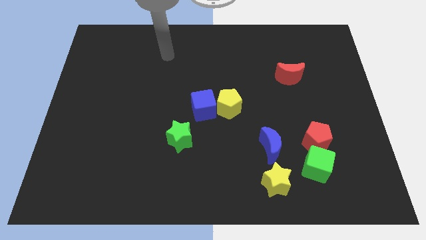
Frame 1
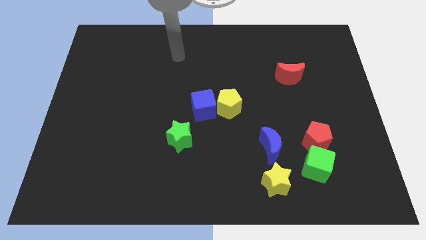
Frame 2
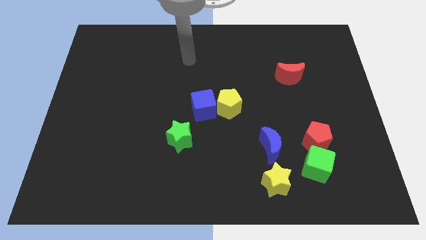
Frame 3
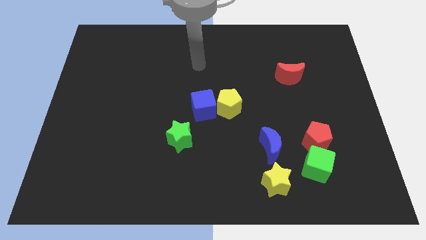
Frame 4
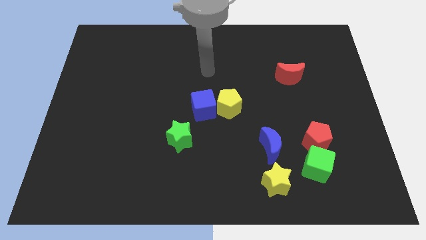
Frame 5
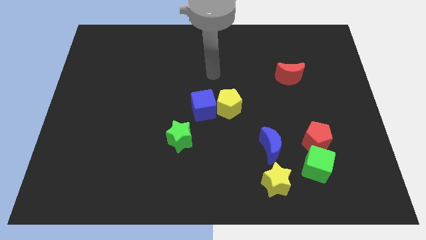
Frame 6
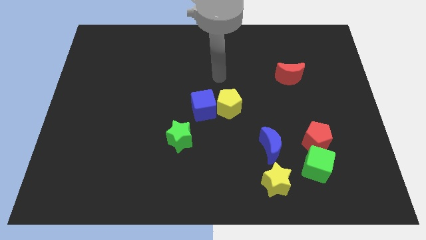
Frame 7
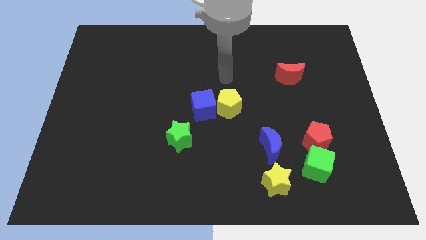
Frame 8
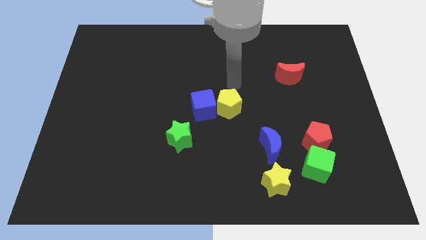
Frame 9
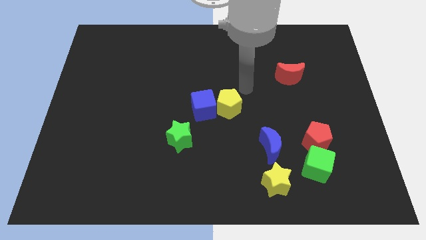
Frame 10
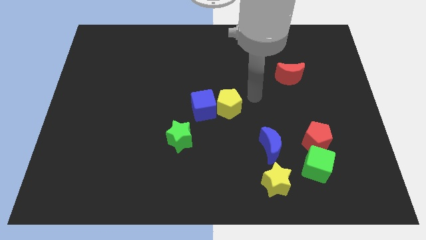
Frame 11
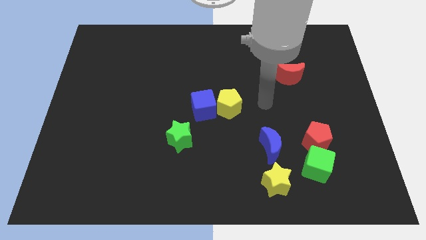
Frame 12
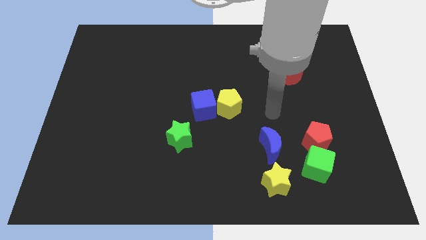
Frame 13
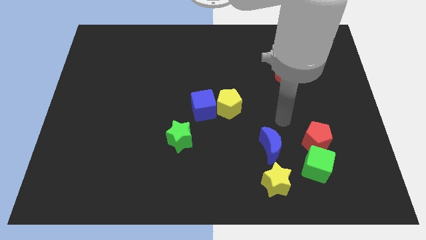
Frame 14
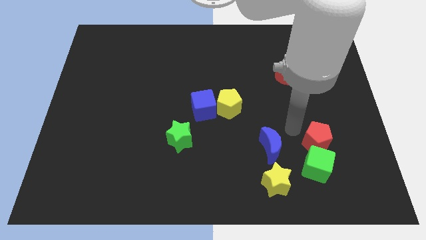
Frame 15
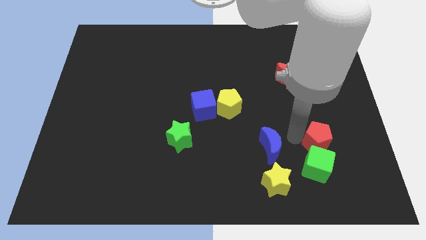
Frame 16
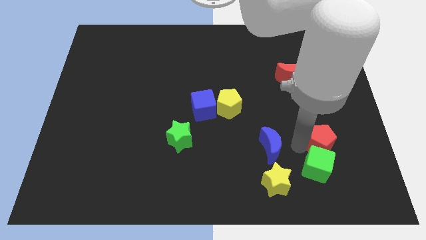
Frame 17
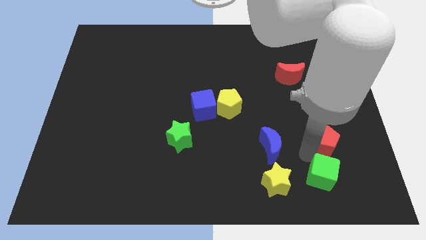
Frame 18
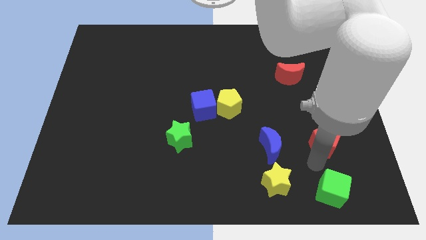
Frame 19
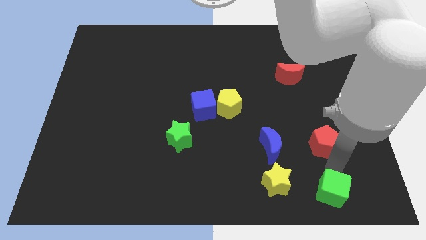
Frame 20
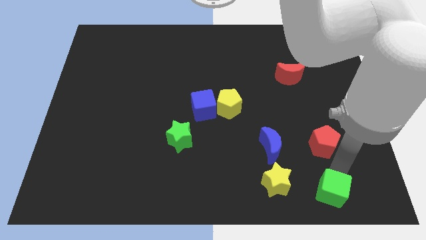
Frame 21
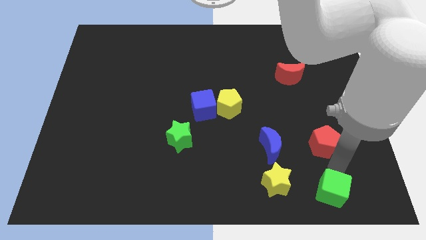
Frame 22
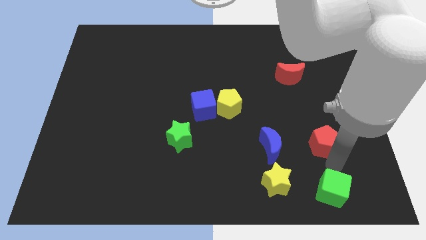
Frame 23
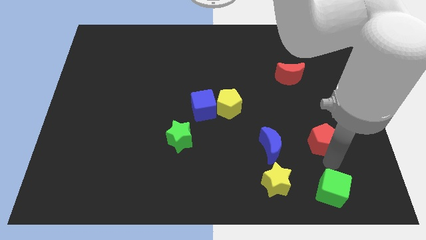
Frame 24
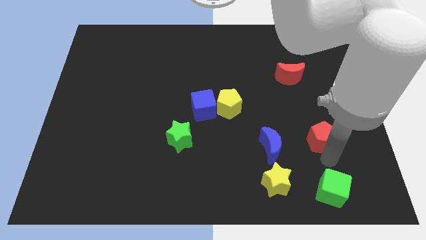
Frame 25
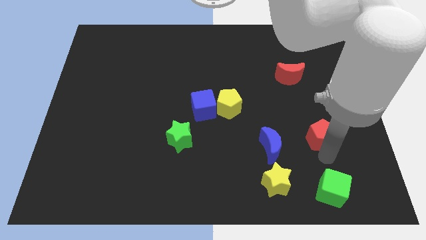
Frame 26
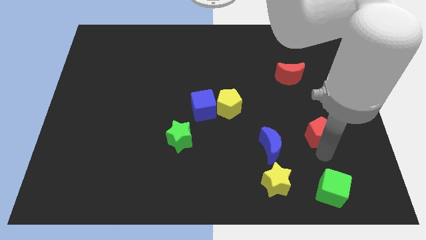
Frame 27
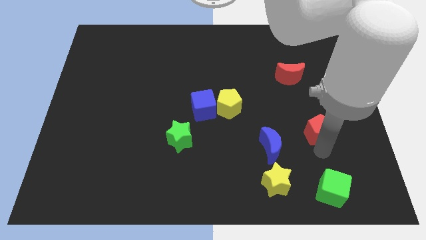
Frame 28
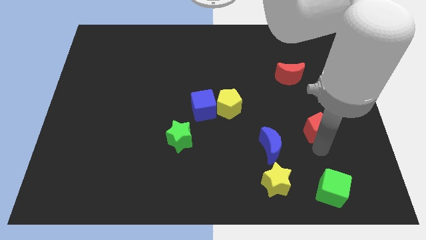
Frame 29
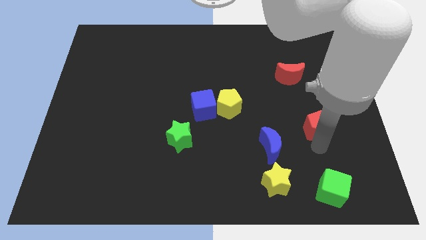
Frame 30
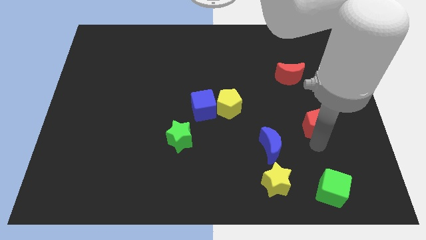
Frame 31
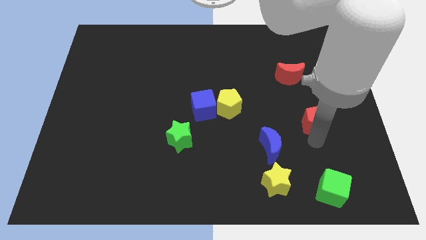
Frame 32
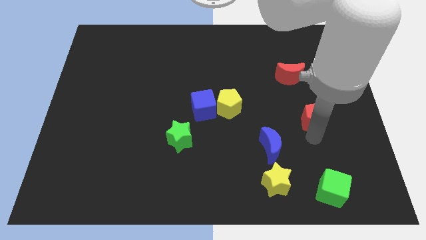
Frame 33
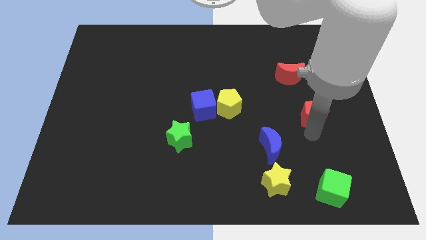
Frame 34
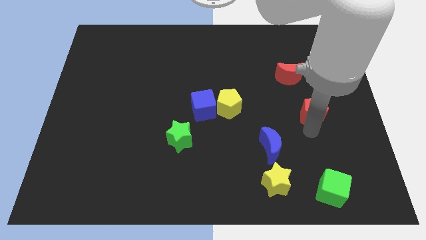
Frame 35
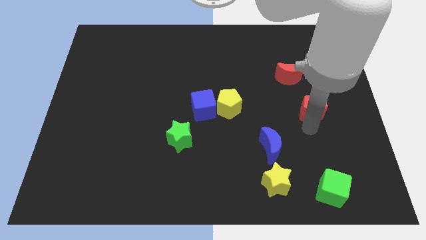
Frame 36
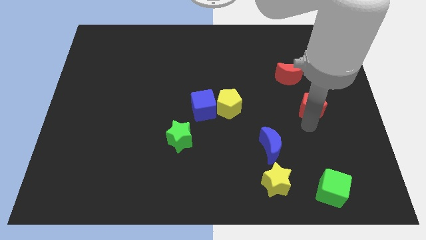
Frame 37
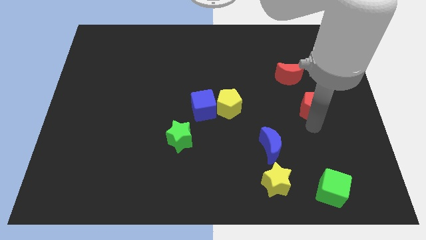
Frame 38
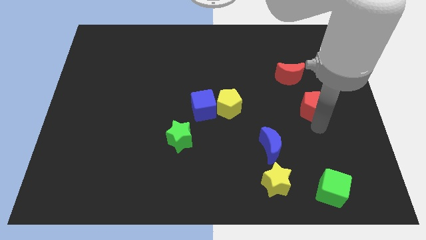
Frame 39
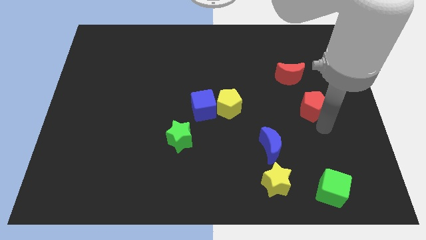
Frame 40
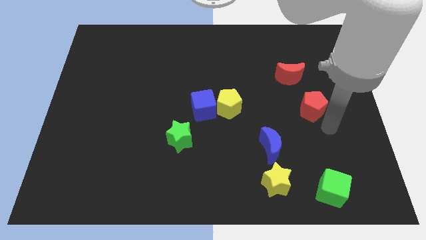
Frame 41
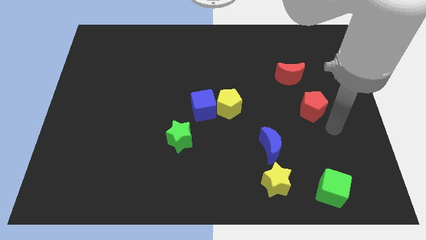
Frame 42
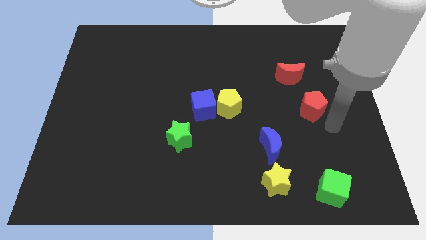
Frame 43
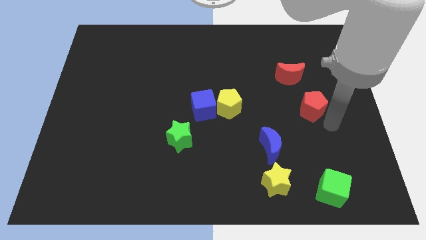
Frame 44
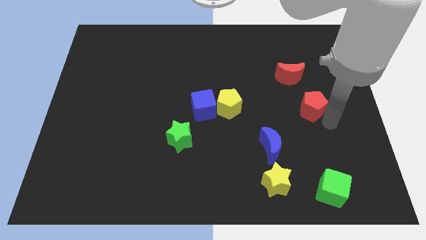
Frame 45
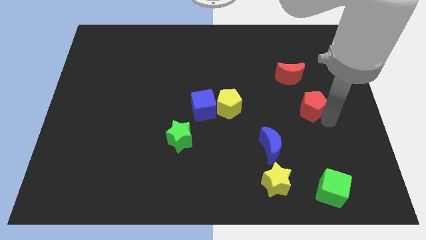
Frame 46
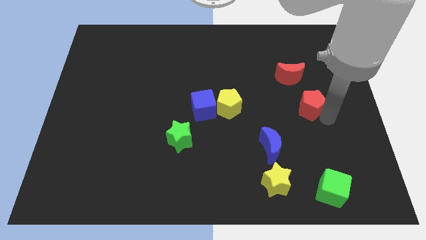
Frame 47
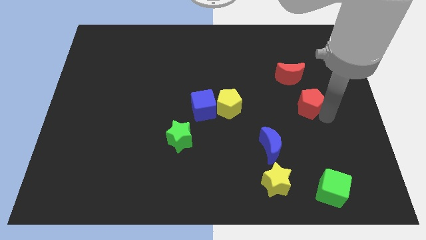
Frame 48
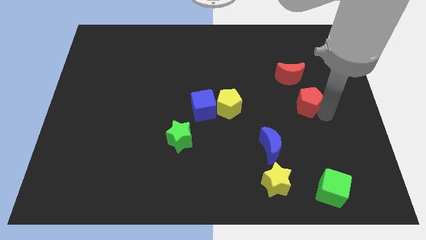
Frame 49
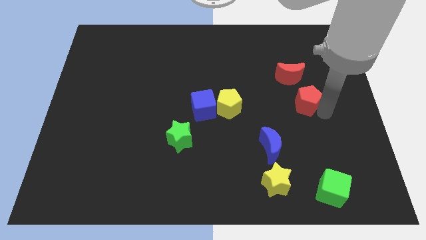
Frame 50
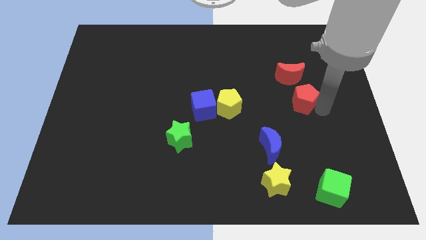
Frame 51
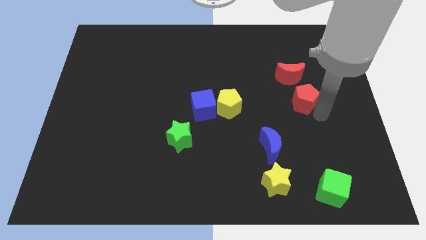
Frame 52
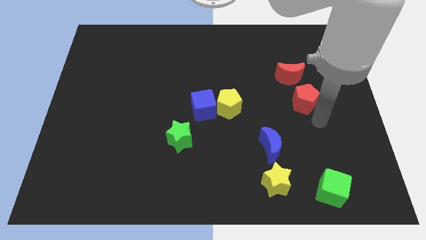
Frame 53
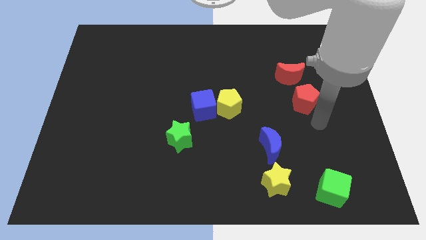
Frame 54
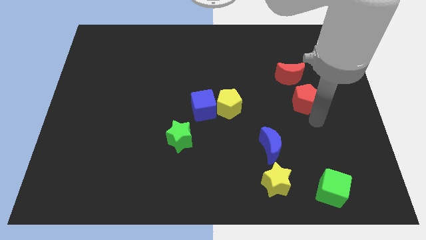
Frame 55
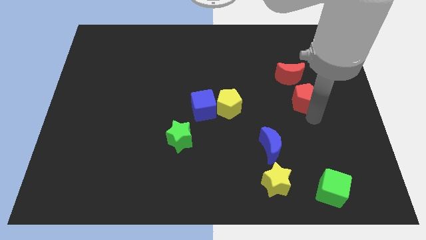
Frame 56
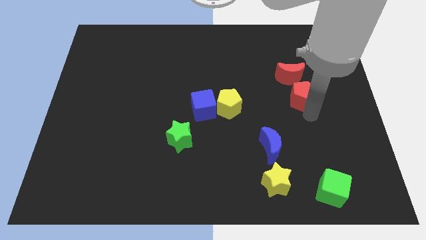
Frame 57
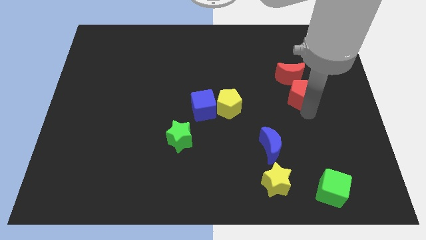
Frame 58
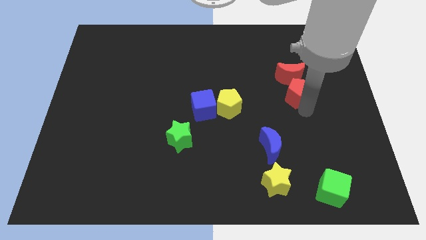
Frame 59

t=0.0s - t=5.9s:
move the red pentagon close to the red moon

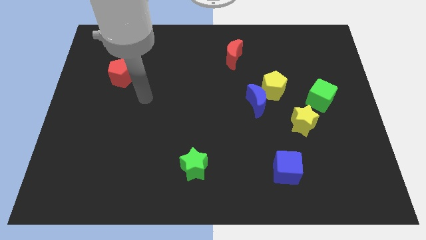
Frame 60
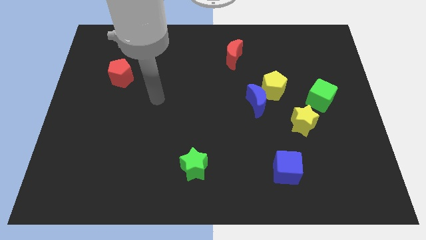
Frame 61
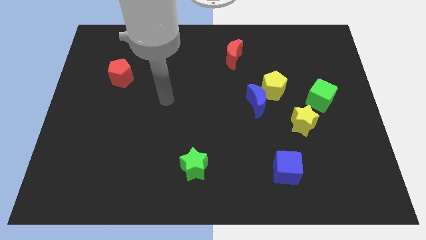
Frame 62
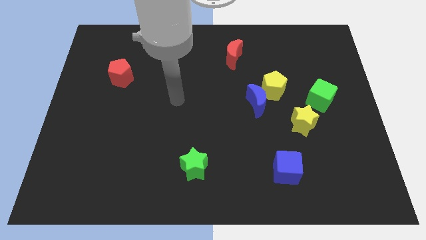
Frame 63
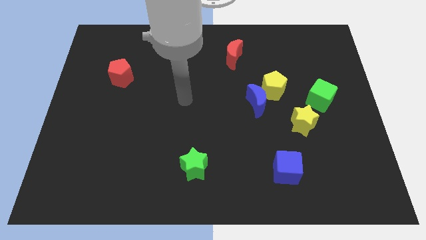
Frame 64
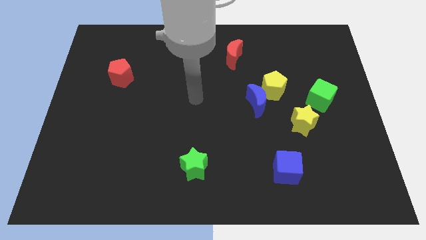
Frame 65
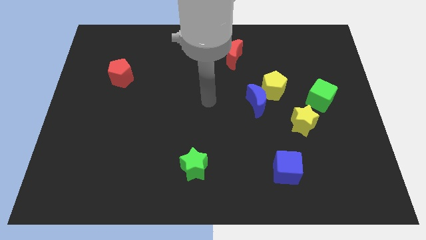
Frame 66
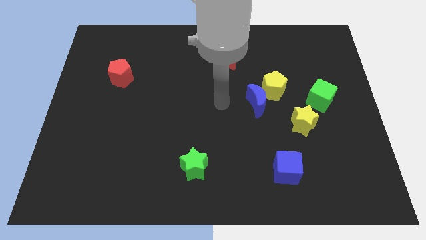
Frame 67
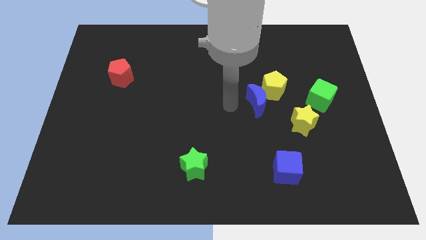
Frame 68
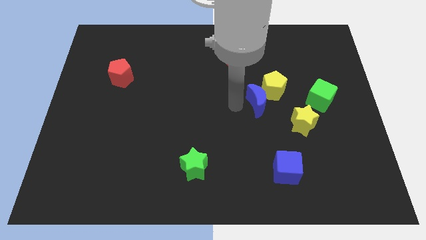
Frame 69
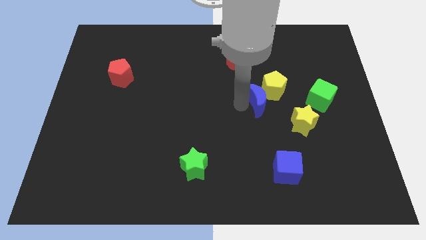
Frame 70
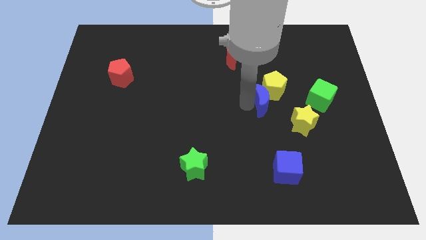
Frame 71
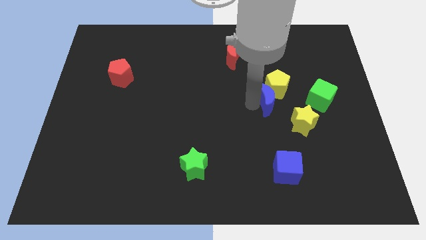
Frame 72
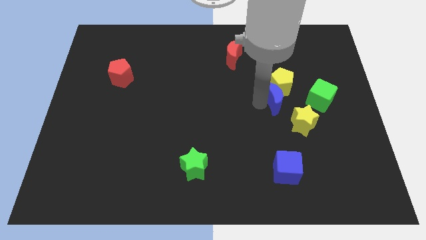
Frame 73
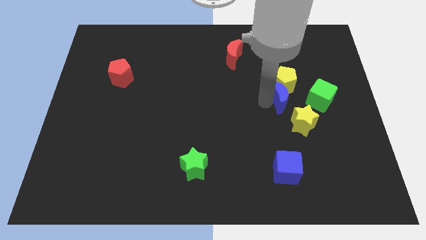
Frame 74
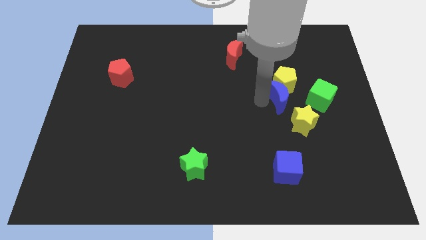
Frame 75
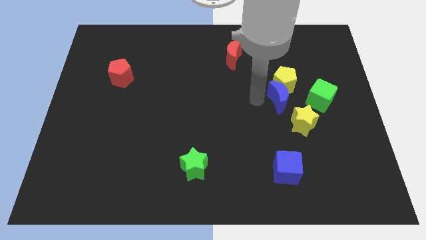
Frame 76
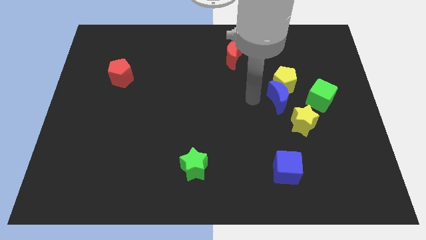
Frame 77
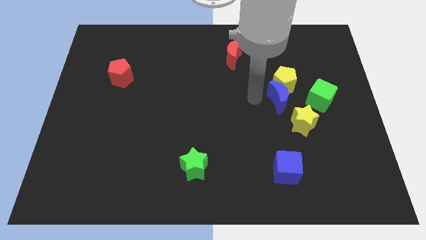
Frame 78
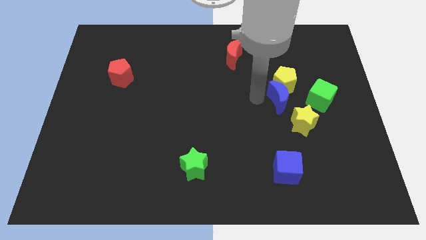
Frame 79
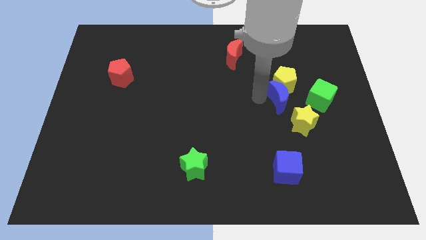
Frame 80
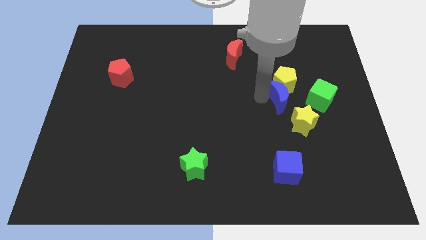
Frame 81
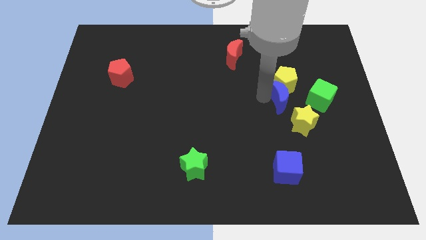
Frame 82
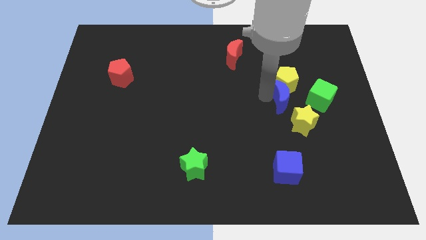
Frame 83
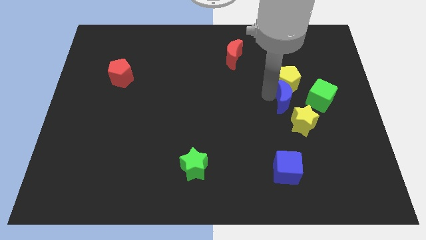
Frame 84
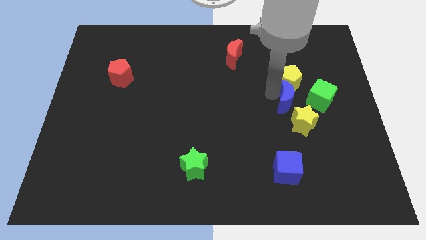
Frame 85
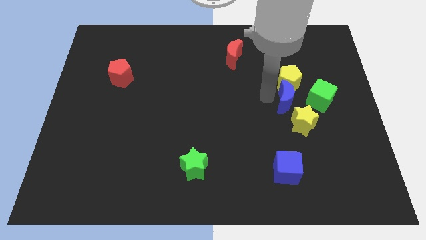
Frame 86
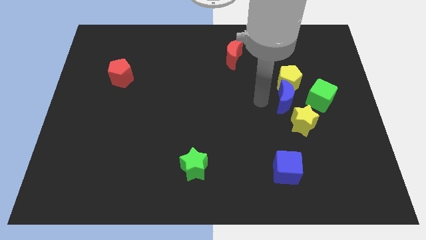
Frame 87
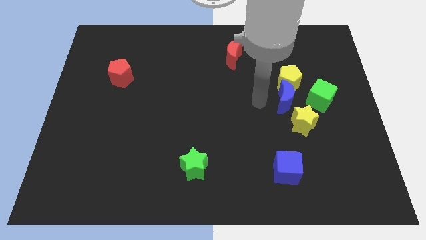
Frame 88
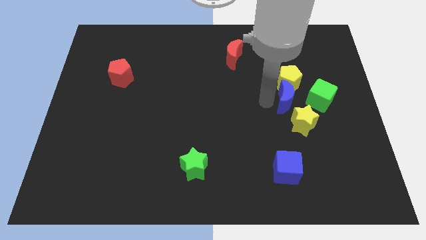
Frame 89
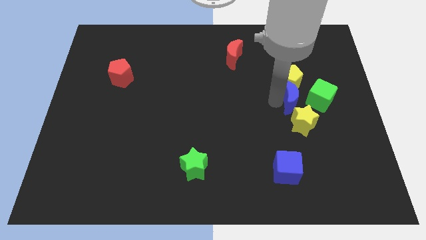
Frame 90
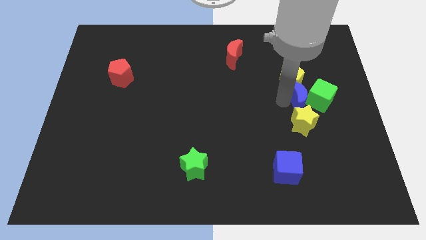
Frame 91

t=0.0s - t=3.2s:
slide the blue moon towards the green cube
